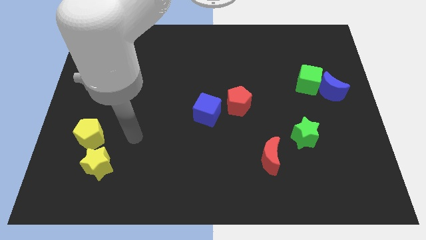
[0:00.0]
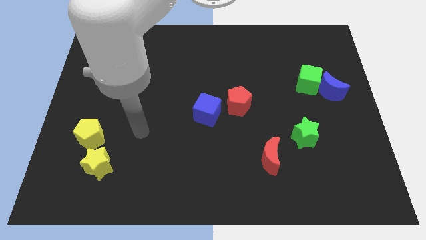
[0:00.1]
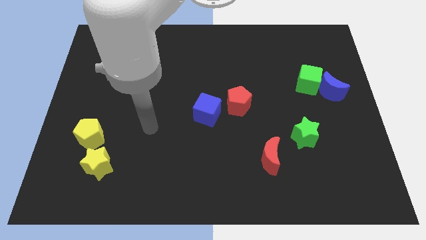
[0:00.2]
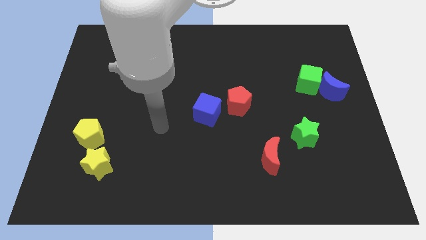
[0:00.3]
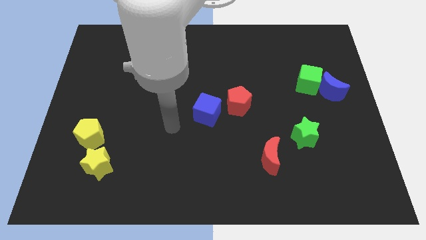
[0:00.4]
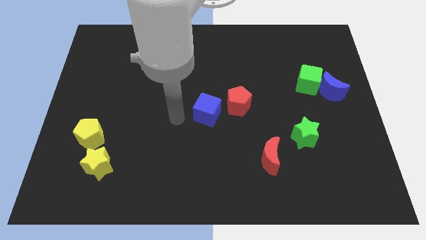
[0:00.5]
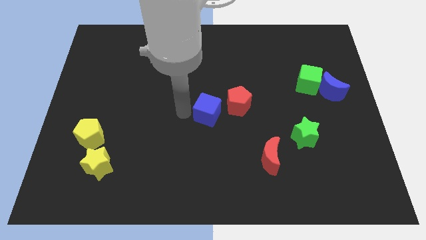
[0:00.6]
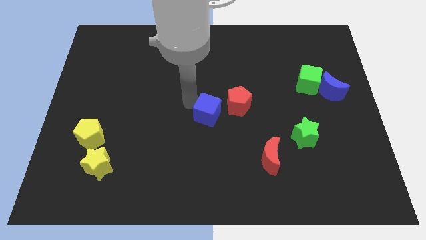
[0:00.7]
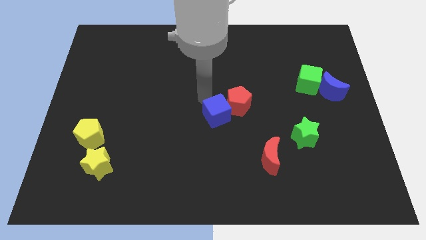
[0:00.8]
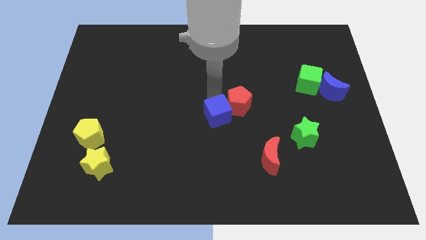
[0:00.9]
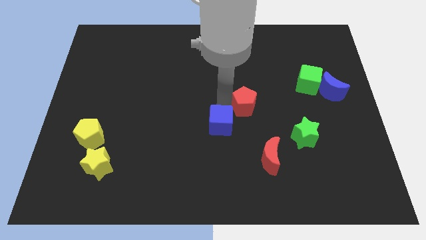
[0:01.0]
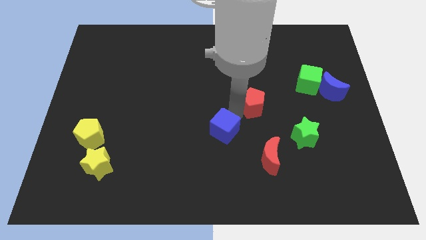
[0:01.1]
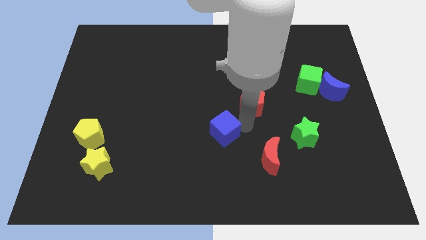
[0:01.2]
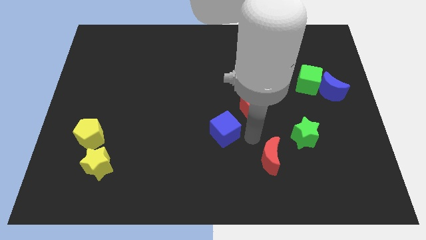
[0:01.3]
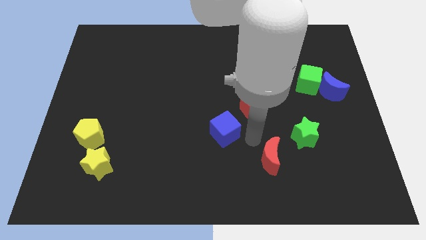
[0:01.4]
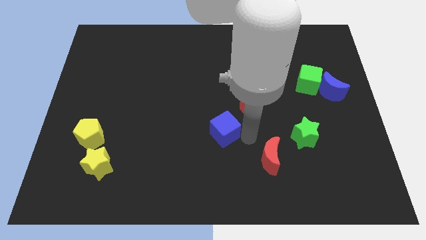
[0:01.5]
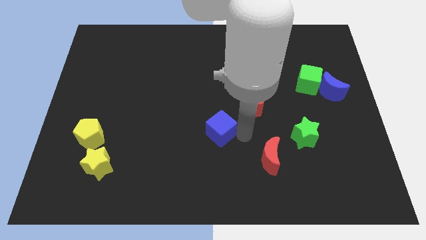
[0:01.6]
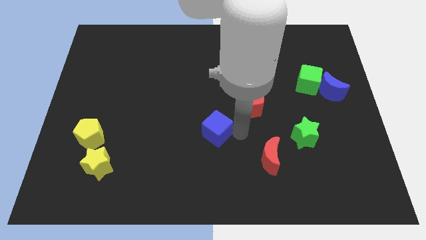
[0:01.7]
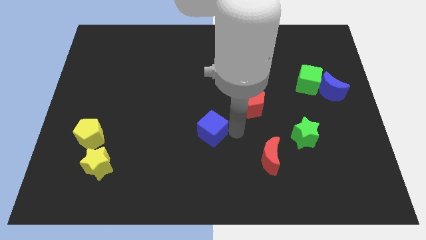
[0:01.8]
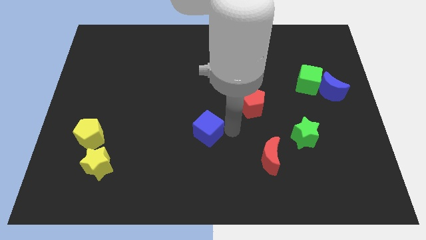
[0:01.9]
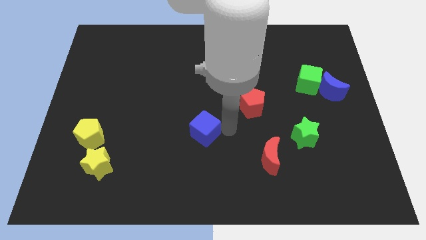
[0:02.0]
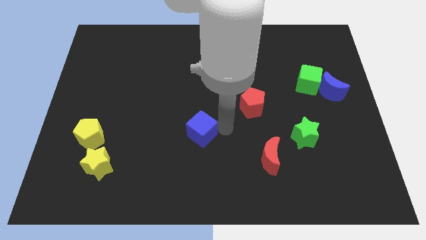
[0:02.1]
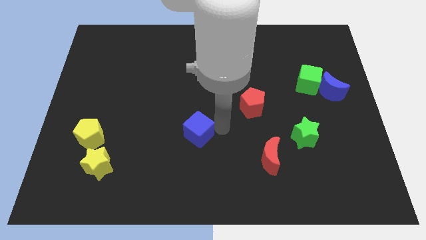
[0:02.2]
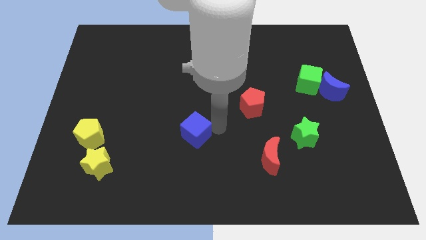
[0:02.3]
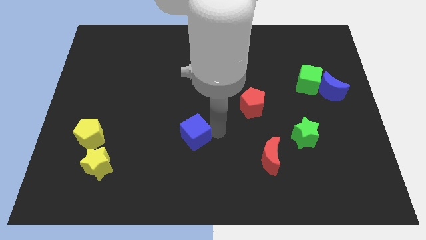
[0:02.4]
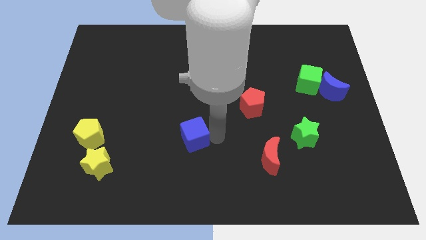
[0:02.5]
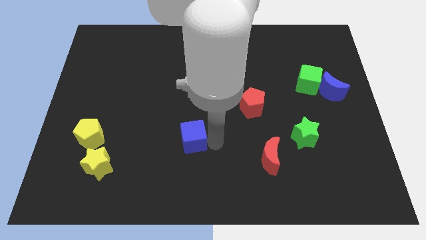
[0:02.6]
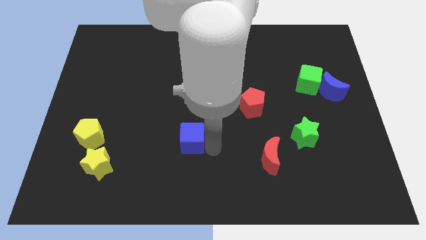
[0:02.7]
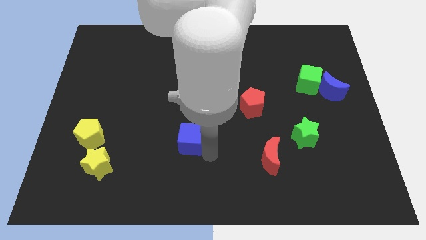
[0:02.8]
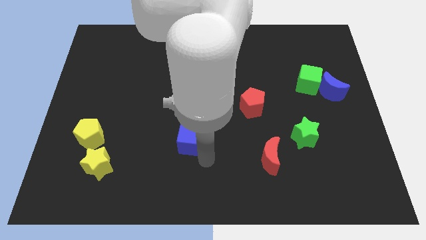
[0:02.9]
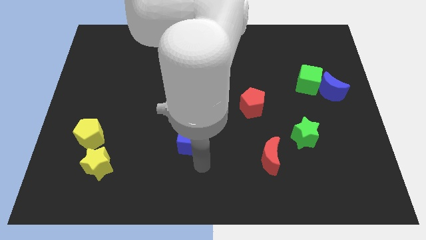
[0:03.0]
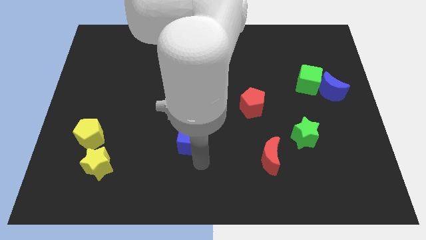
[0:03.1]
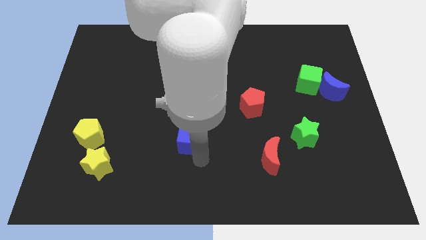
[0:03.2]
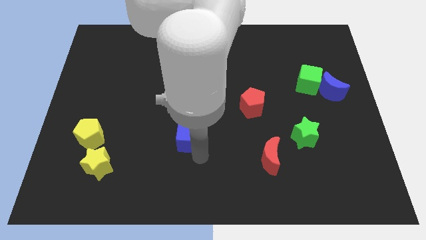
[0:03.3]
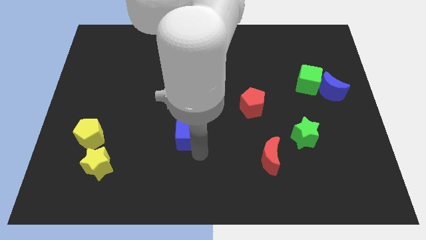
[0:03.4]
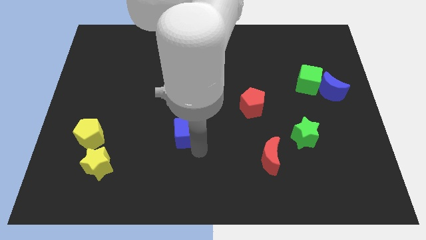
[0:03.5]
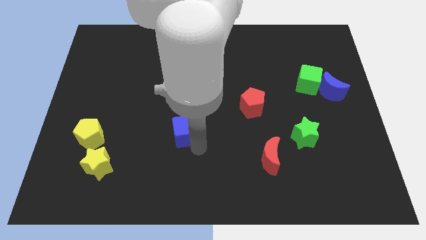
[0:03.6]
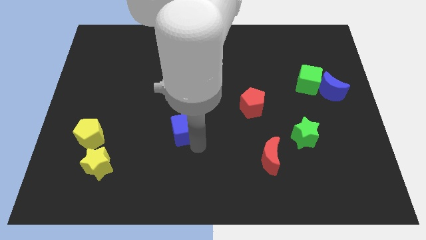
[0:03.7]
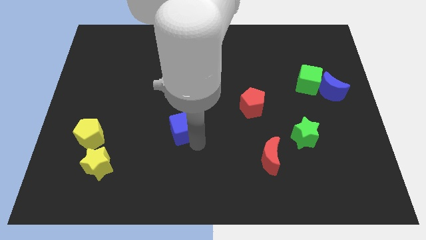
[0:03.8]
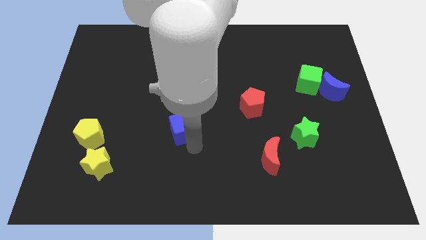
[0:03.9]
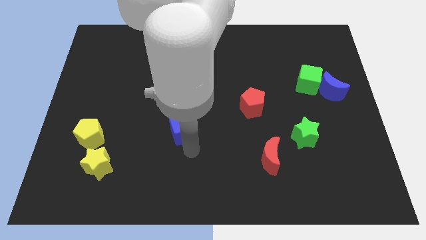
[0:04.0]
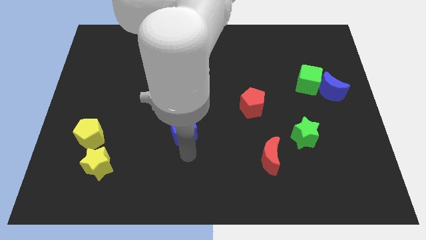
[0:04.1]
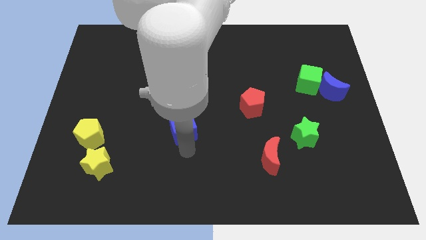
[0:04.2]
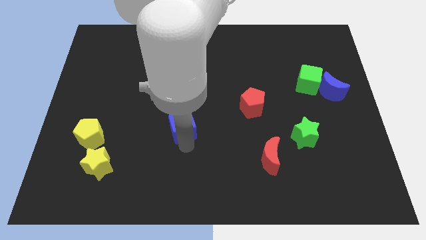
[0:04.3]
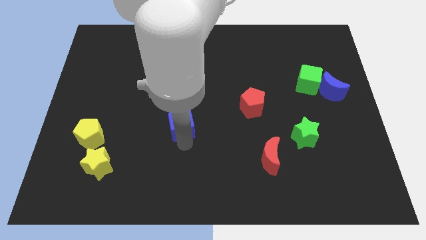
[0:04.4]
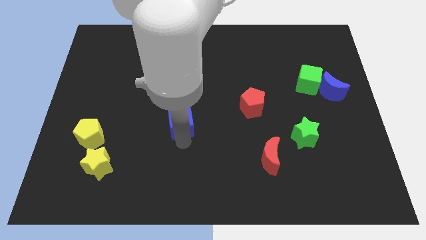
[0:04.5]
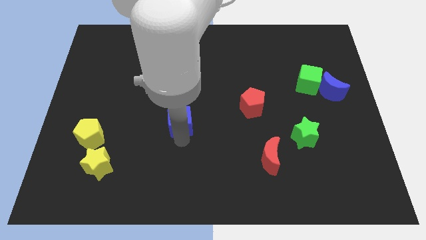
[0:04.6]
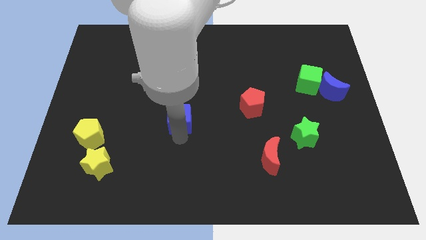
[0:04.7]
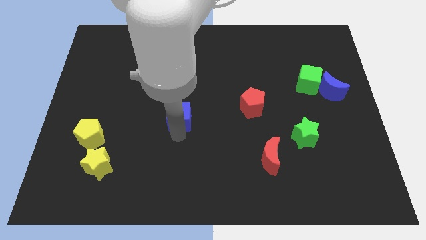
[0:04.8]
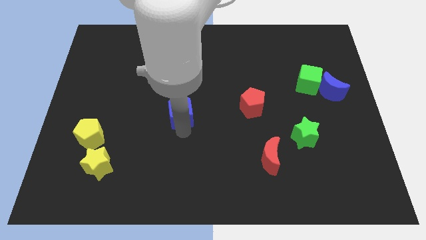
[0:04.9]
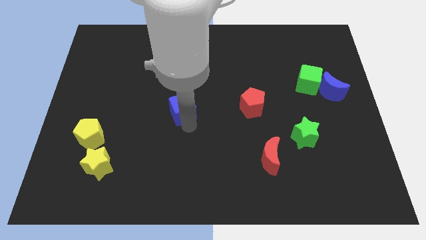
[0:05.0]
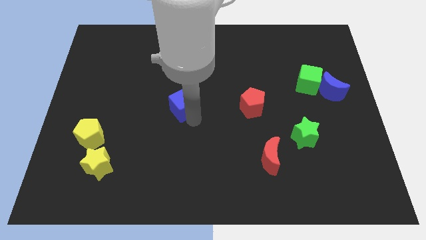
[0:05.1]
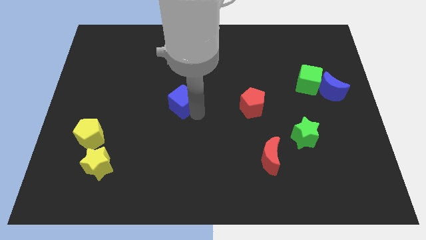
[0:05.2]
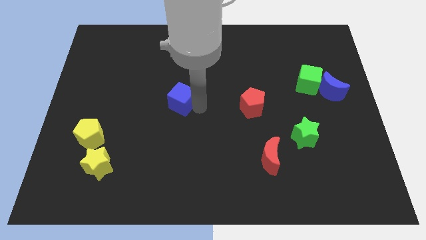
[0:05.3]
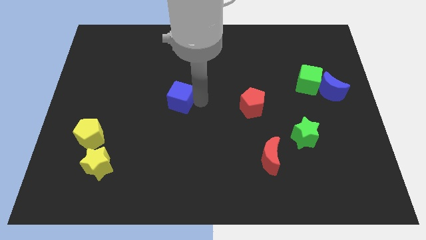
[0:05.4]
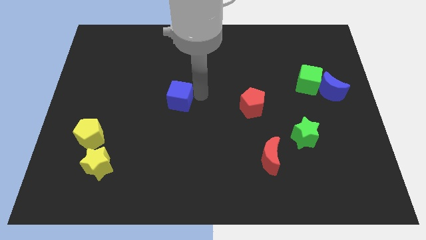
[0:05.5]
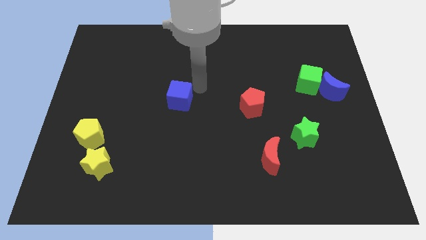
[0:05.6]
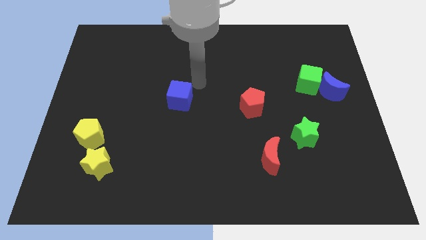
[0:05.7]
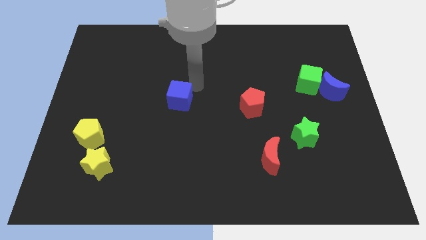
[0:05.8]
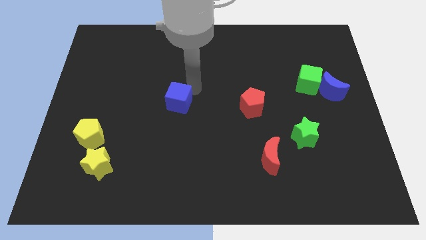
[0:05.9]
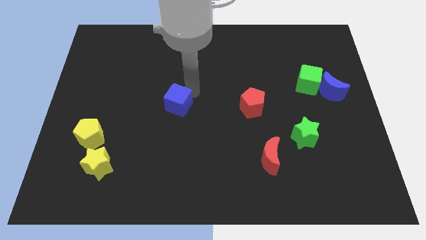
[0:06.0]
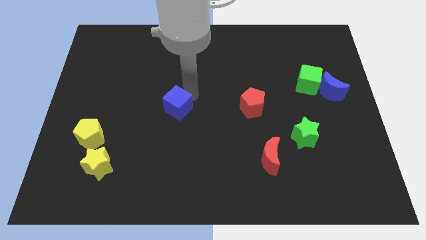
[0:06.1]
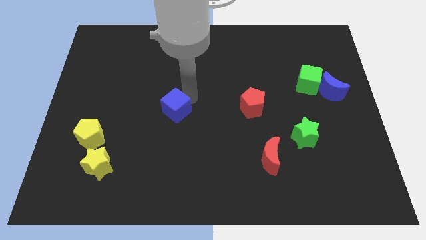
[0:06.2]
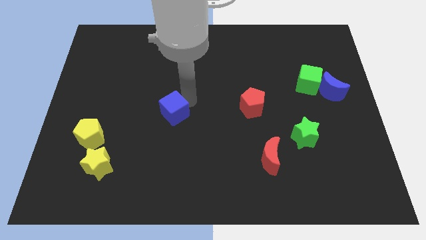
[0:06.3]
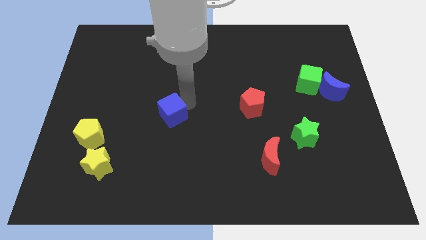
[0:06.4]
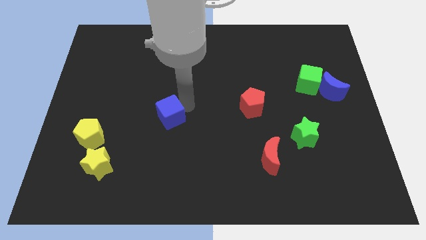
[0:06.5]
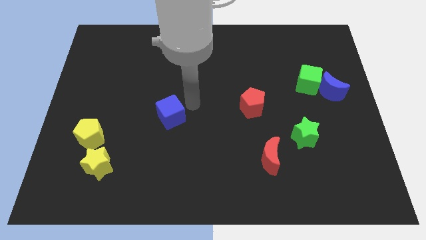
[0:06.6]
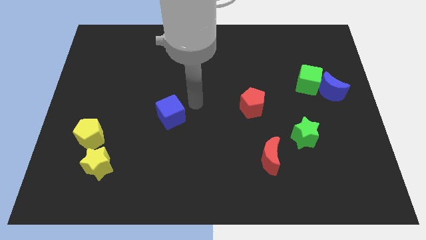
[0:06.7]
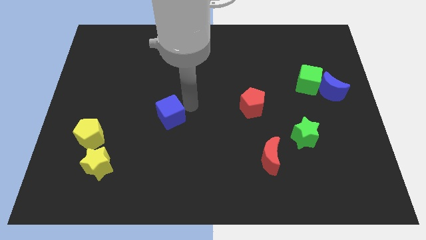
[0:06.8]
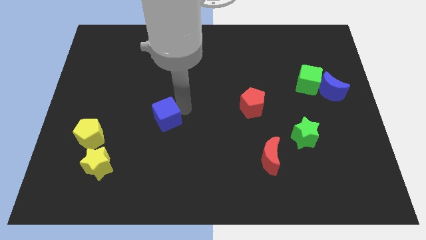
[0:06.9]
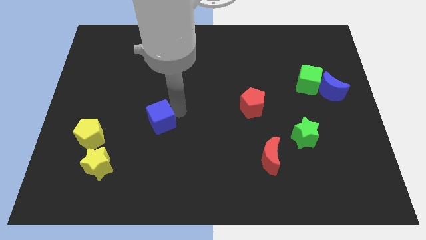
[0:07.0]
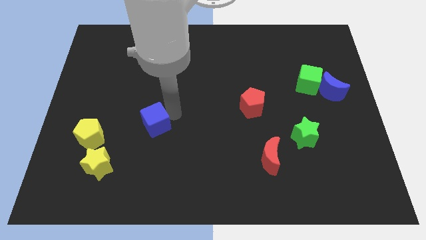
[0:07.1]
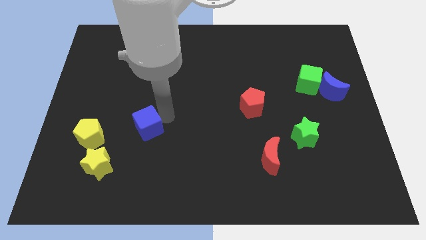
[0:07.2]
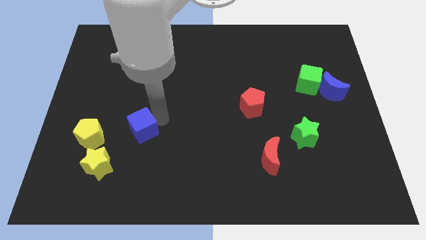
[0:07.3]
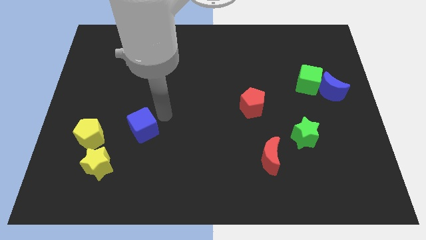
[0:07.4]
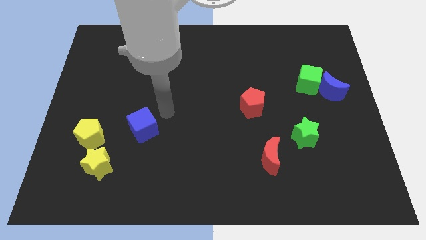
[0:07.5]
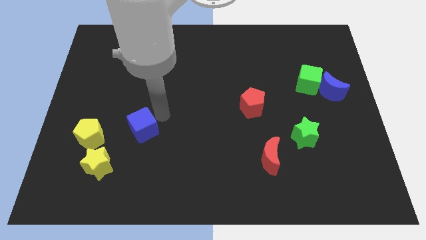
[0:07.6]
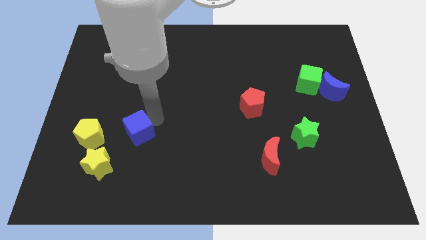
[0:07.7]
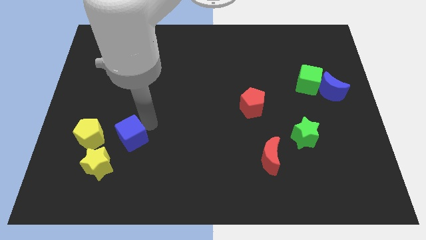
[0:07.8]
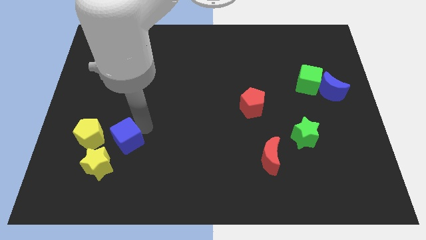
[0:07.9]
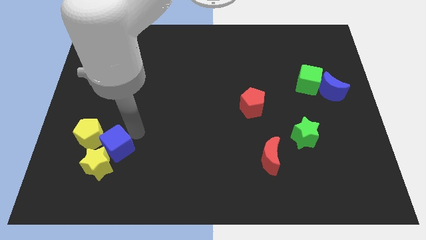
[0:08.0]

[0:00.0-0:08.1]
push the blue cube to the yellow star
